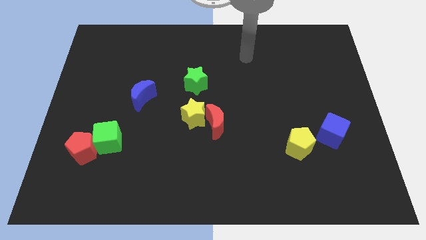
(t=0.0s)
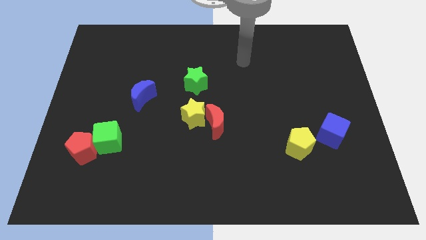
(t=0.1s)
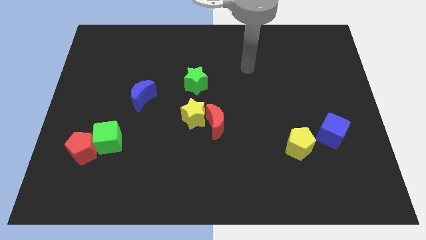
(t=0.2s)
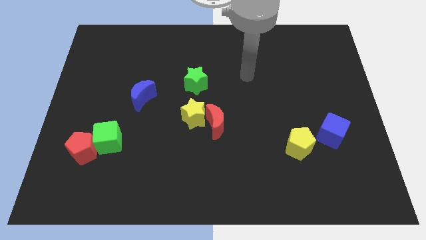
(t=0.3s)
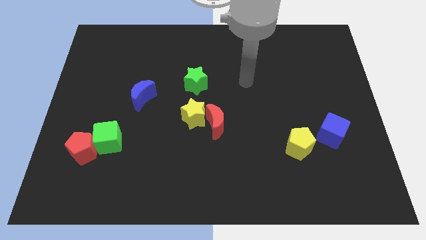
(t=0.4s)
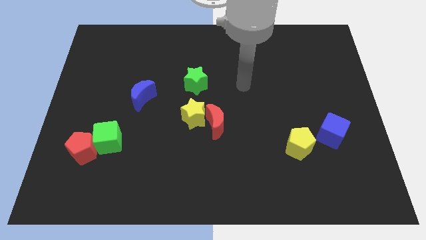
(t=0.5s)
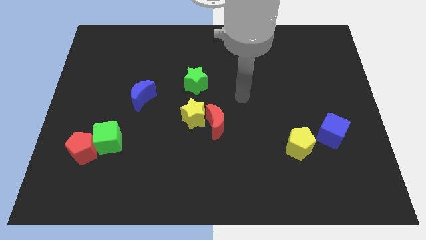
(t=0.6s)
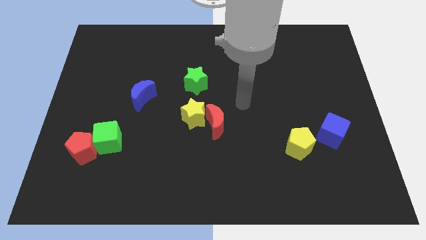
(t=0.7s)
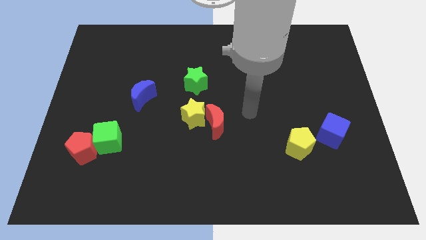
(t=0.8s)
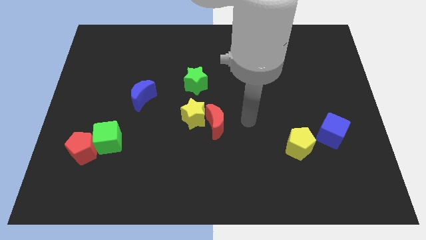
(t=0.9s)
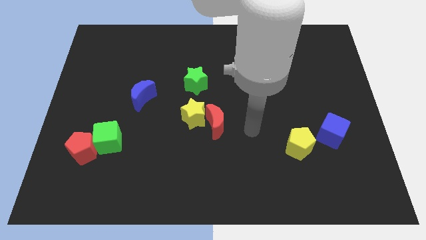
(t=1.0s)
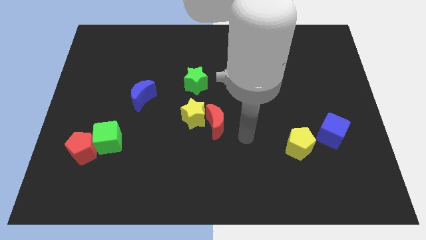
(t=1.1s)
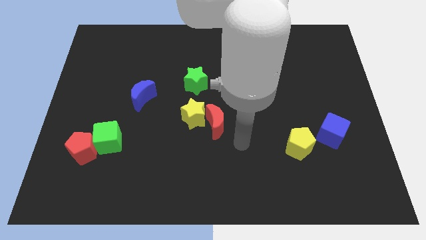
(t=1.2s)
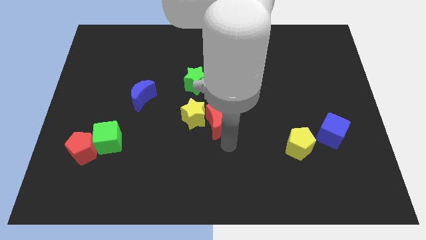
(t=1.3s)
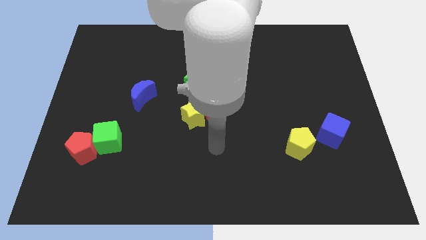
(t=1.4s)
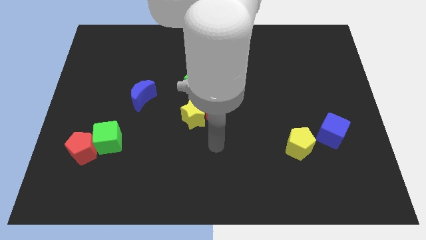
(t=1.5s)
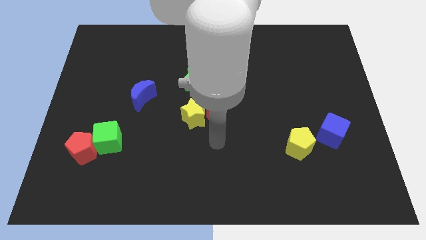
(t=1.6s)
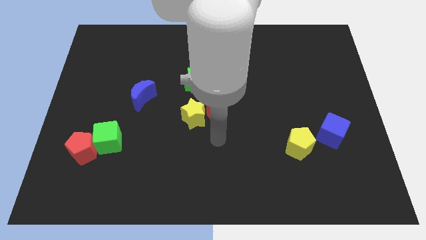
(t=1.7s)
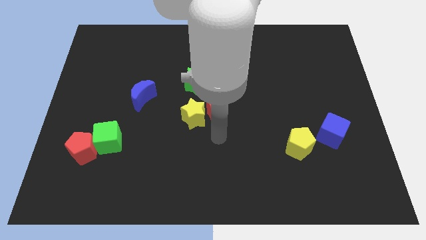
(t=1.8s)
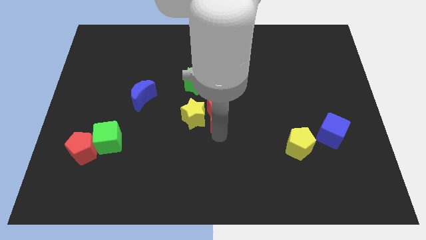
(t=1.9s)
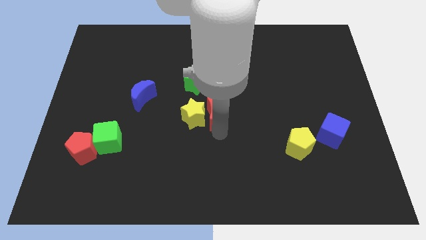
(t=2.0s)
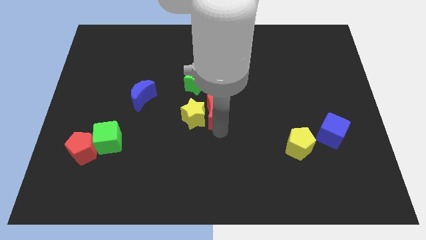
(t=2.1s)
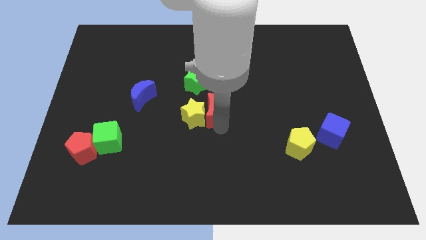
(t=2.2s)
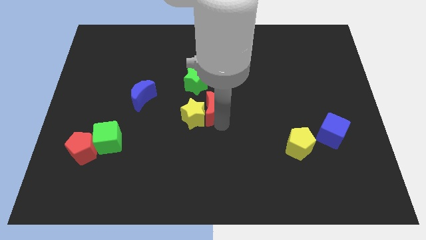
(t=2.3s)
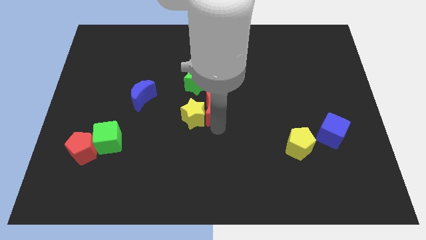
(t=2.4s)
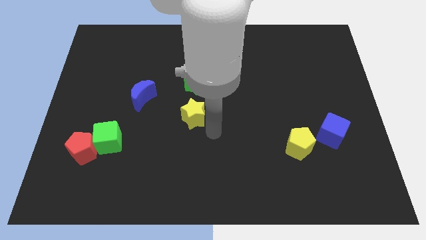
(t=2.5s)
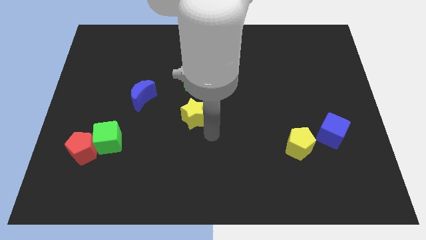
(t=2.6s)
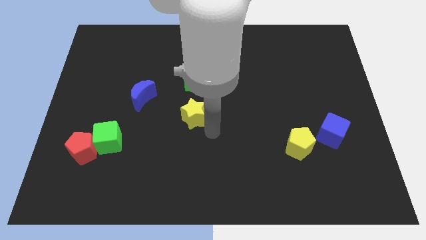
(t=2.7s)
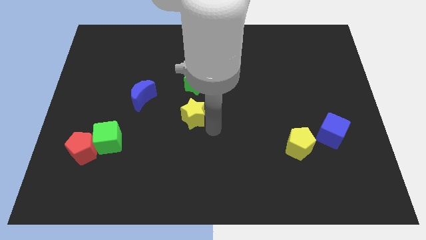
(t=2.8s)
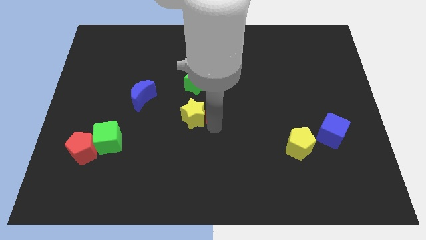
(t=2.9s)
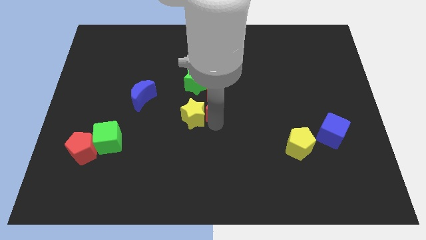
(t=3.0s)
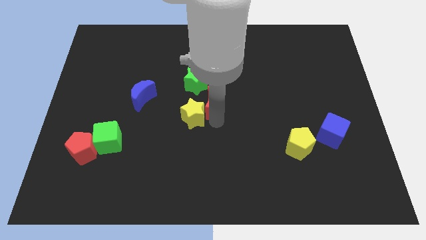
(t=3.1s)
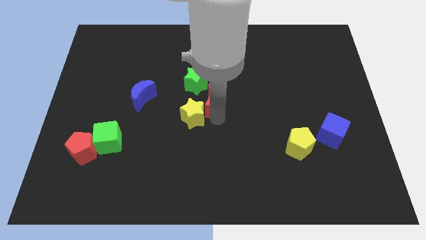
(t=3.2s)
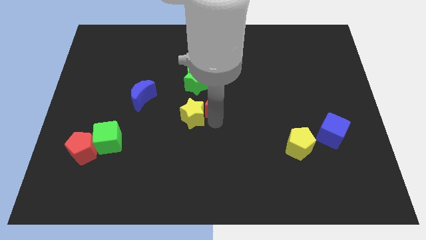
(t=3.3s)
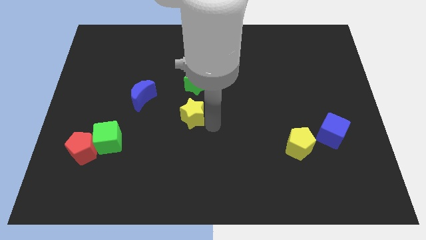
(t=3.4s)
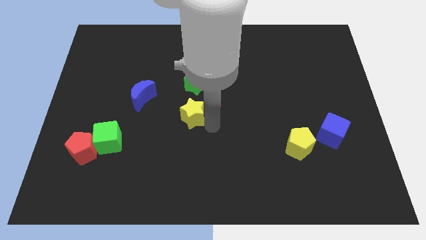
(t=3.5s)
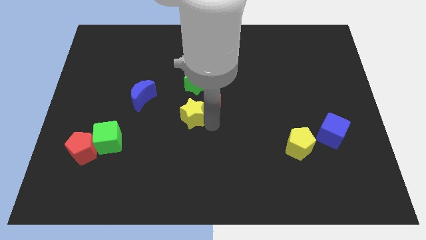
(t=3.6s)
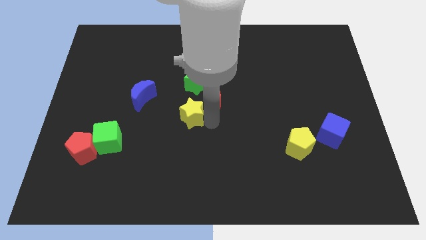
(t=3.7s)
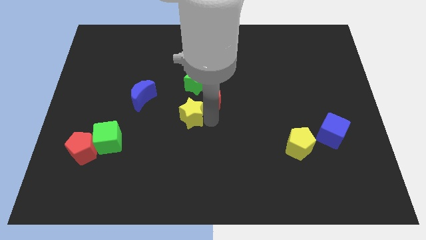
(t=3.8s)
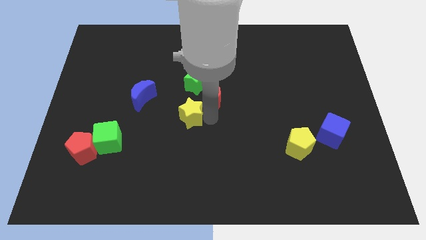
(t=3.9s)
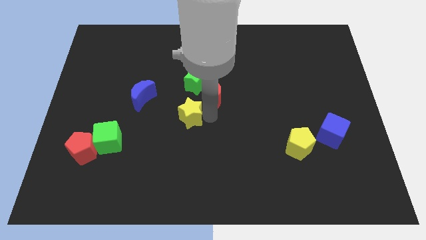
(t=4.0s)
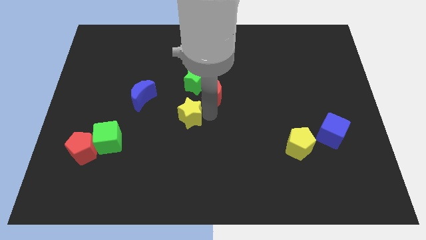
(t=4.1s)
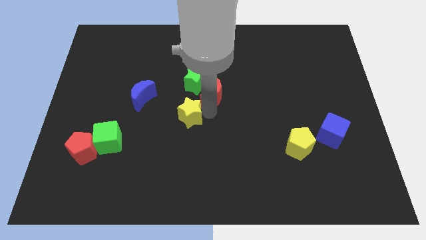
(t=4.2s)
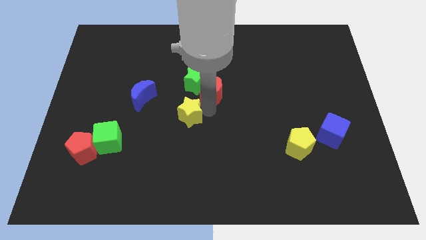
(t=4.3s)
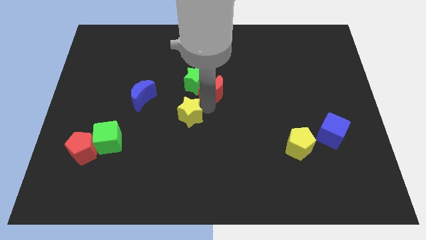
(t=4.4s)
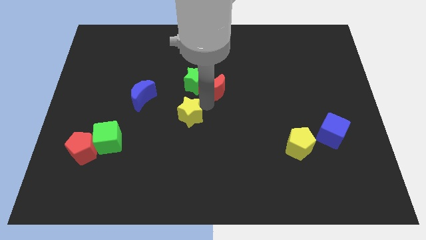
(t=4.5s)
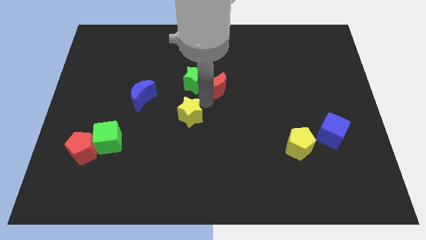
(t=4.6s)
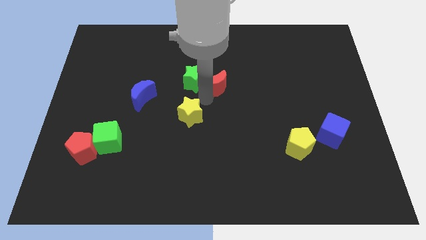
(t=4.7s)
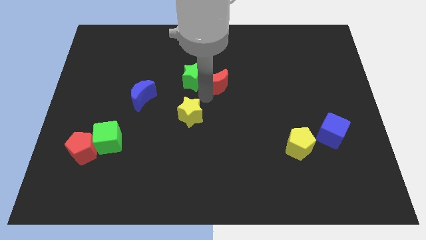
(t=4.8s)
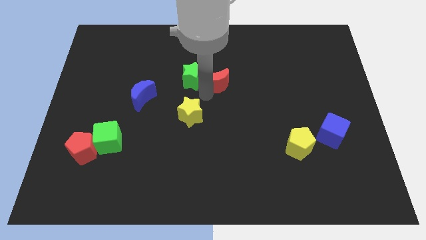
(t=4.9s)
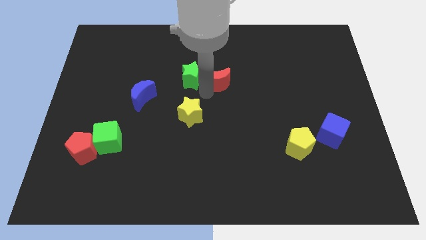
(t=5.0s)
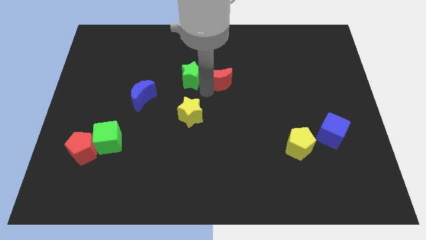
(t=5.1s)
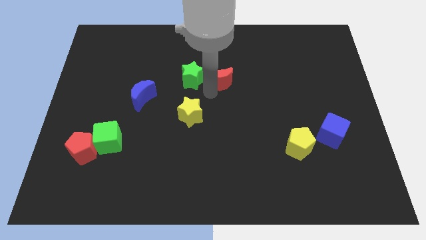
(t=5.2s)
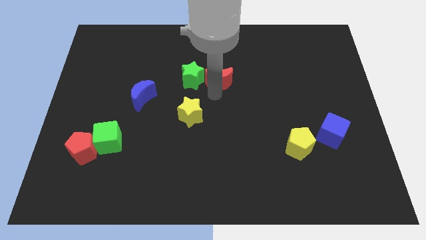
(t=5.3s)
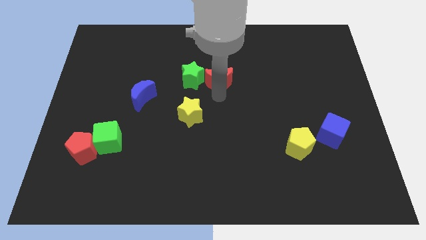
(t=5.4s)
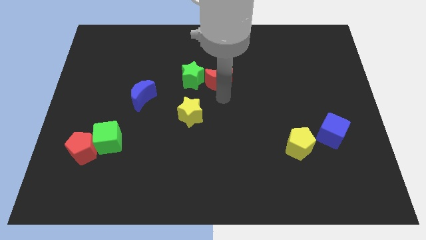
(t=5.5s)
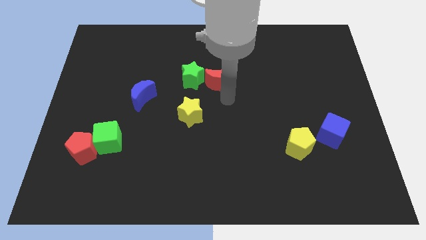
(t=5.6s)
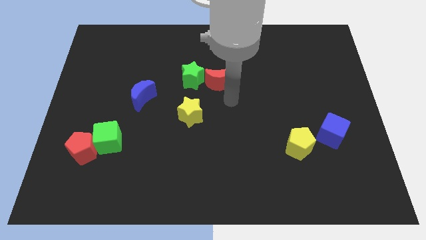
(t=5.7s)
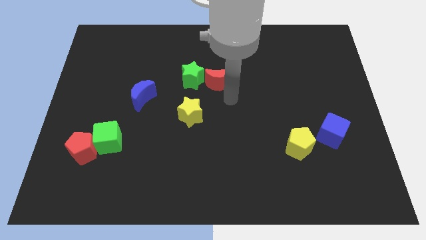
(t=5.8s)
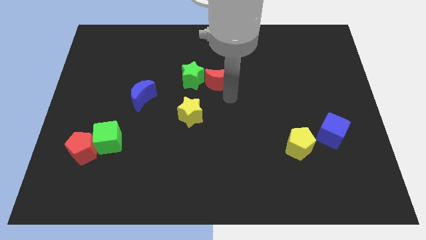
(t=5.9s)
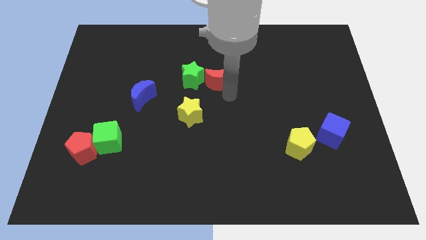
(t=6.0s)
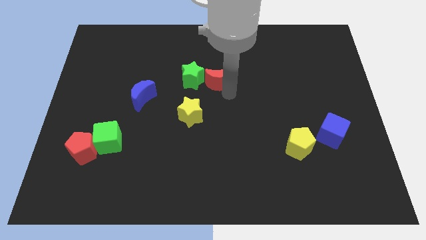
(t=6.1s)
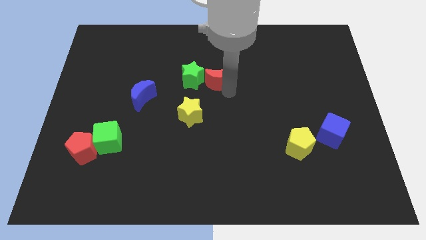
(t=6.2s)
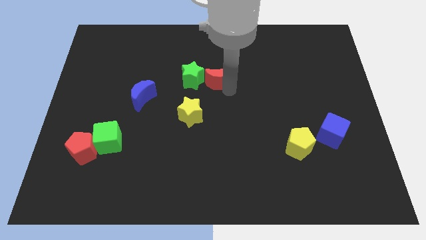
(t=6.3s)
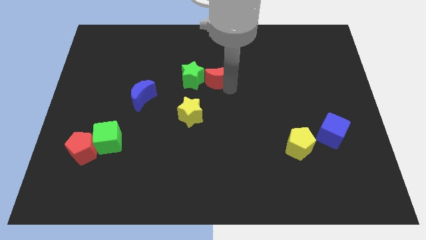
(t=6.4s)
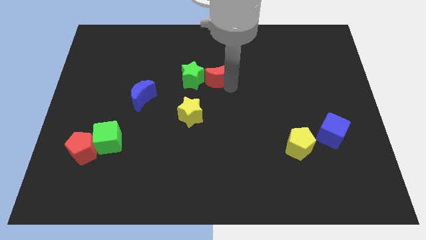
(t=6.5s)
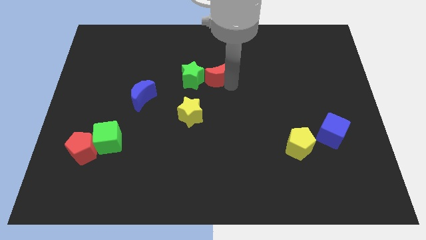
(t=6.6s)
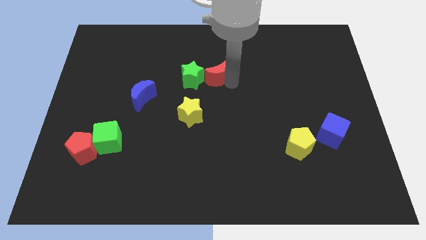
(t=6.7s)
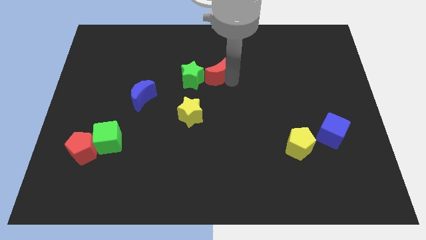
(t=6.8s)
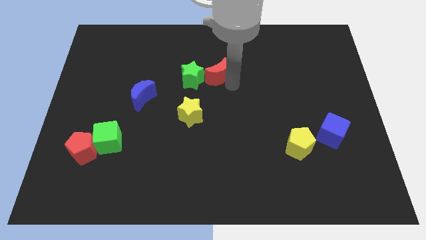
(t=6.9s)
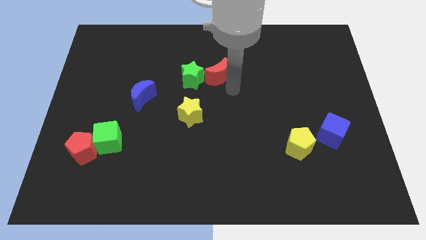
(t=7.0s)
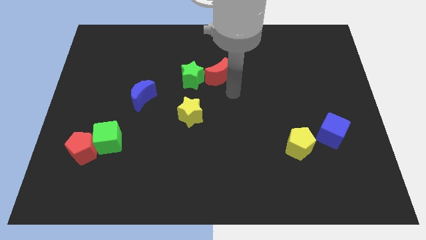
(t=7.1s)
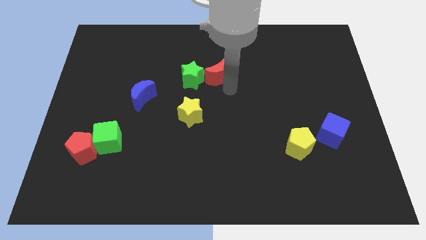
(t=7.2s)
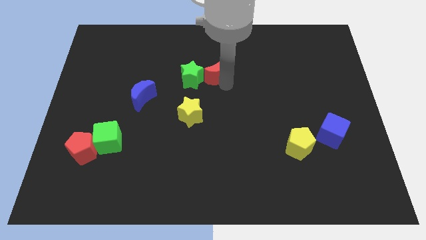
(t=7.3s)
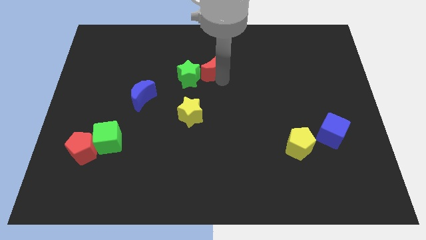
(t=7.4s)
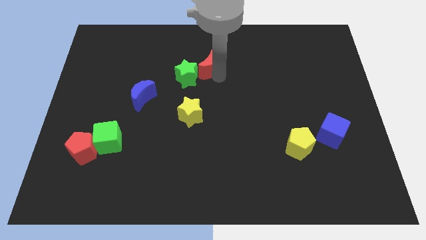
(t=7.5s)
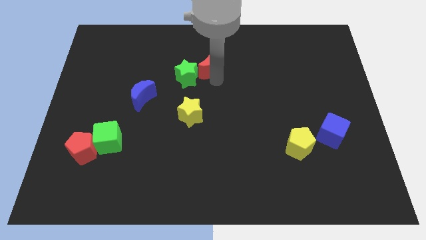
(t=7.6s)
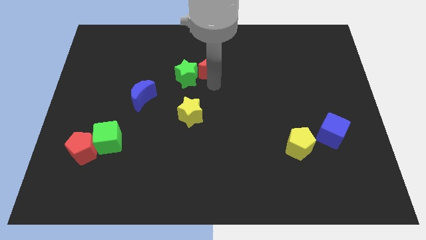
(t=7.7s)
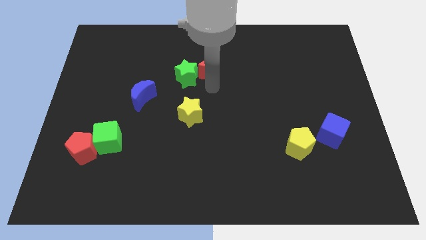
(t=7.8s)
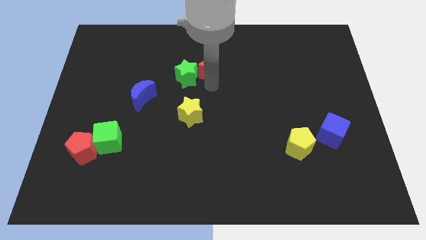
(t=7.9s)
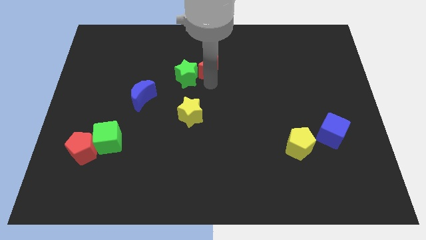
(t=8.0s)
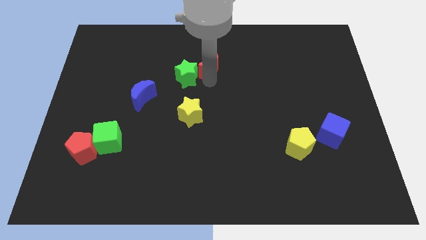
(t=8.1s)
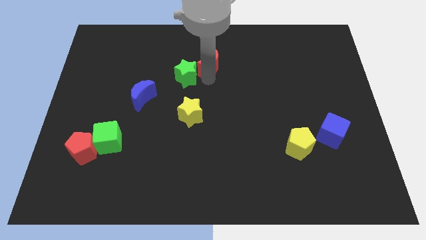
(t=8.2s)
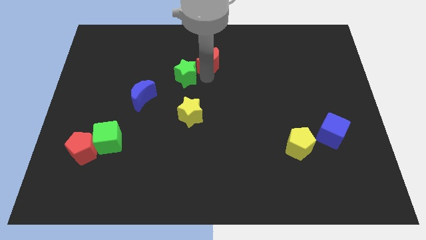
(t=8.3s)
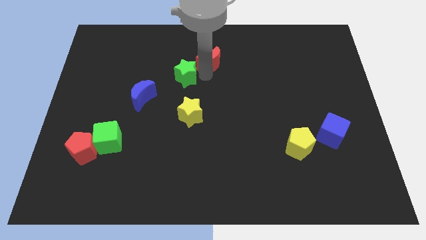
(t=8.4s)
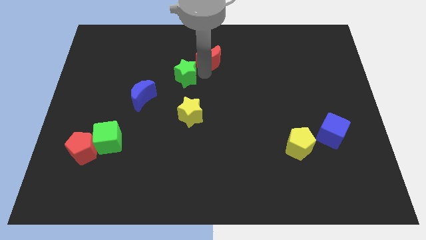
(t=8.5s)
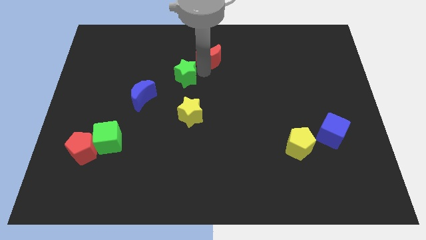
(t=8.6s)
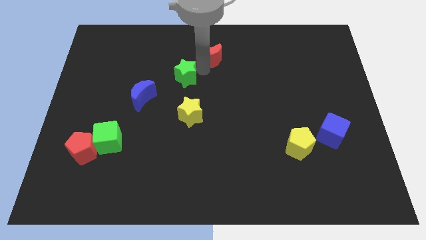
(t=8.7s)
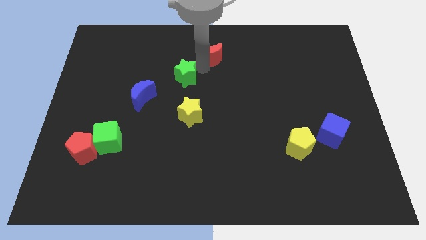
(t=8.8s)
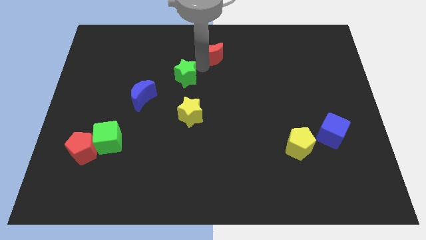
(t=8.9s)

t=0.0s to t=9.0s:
push the red moon to the towards your base
